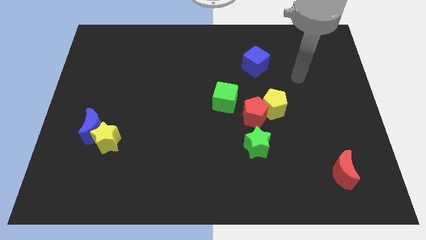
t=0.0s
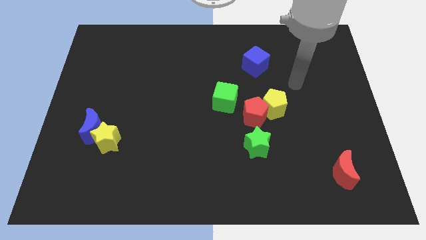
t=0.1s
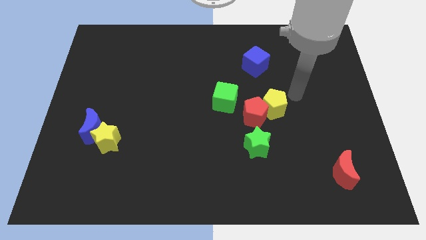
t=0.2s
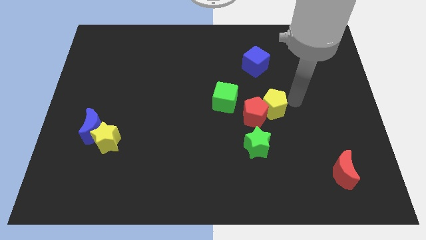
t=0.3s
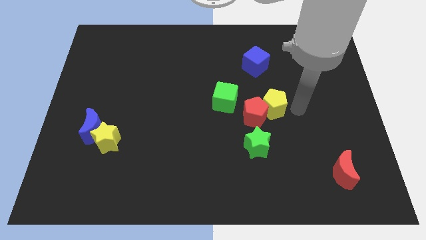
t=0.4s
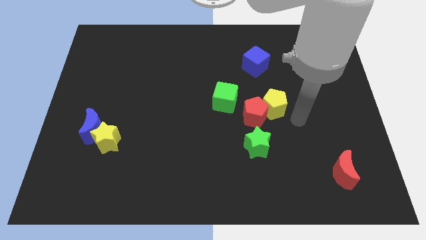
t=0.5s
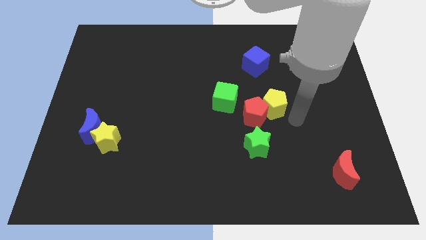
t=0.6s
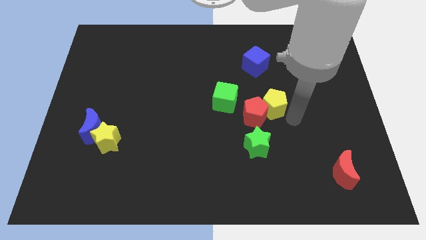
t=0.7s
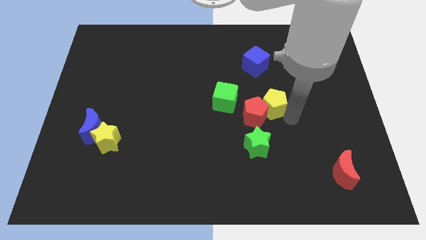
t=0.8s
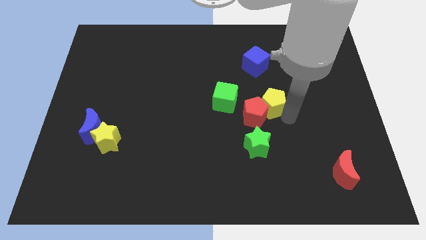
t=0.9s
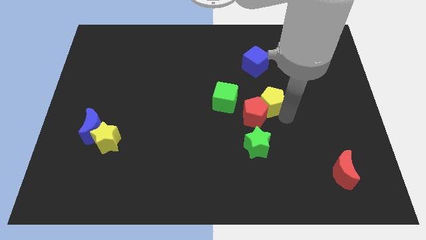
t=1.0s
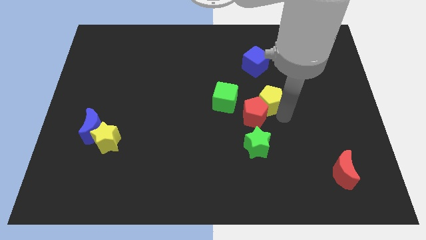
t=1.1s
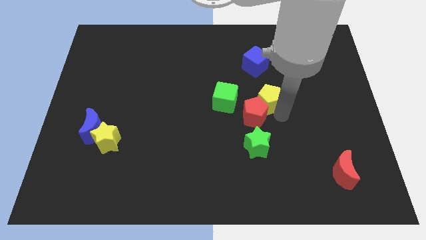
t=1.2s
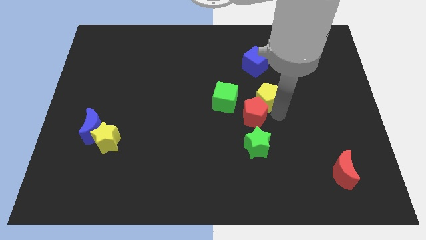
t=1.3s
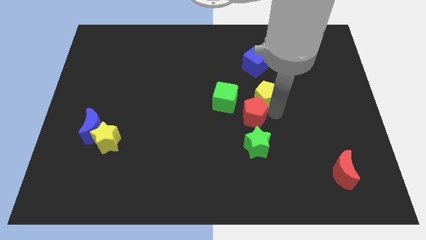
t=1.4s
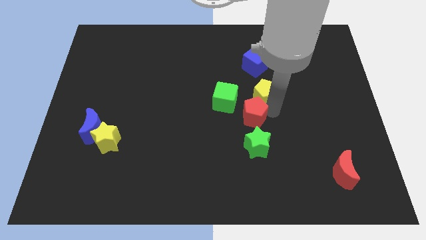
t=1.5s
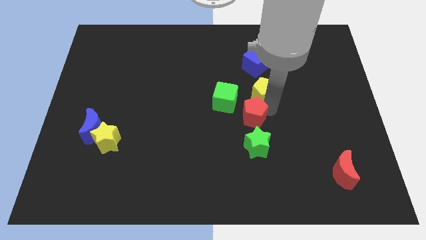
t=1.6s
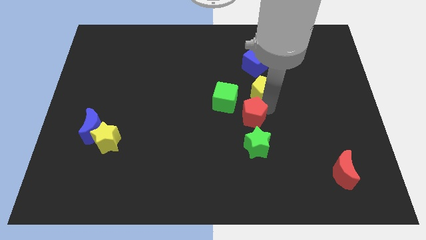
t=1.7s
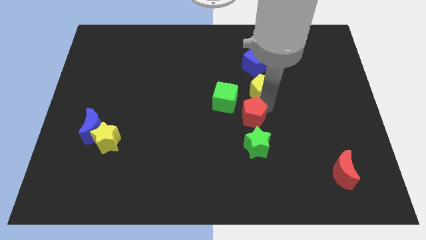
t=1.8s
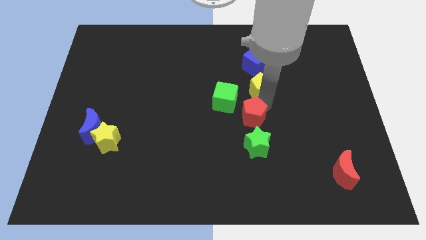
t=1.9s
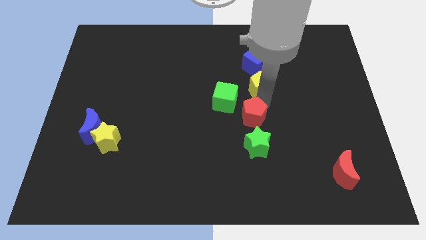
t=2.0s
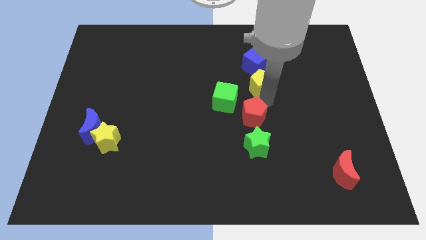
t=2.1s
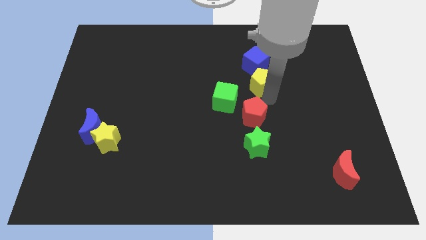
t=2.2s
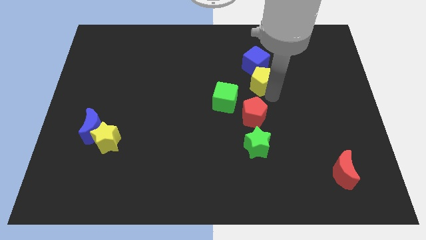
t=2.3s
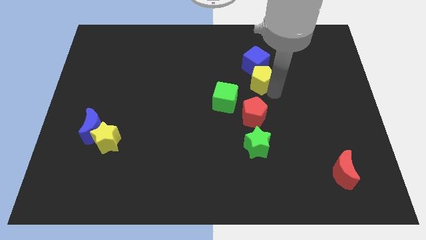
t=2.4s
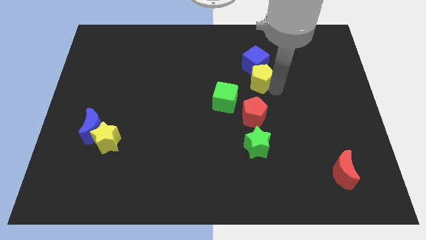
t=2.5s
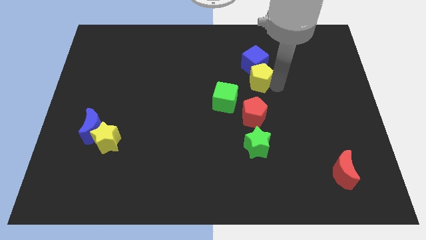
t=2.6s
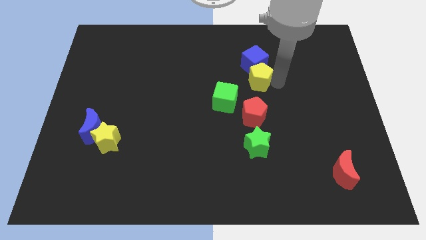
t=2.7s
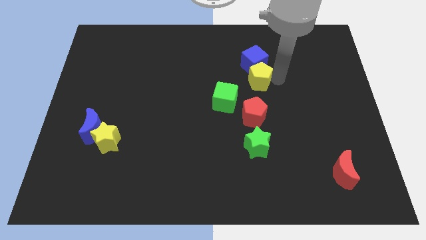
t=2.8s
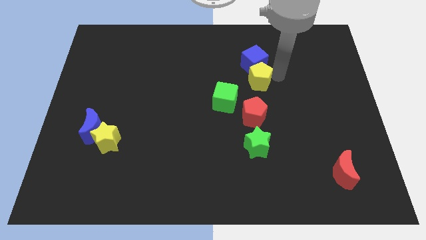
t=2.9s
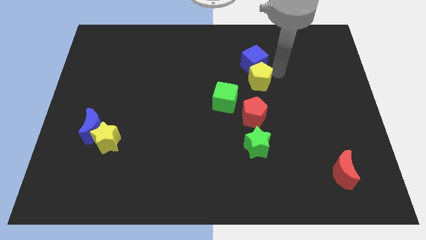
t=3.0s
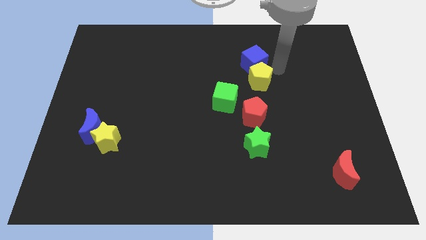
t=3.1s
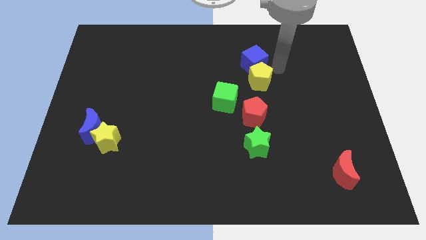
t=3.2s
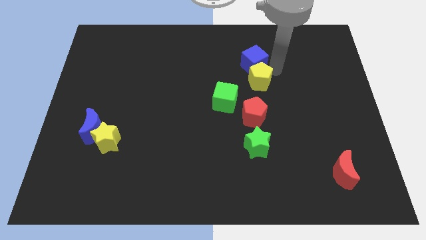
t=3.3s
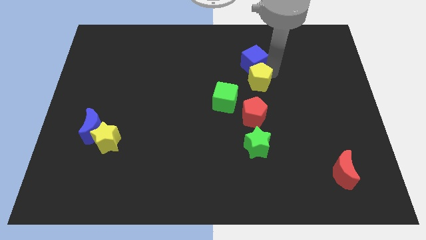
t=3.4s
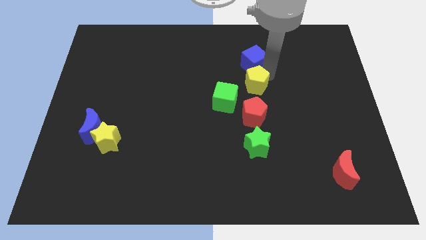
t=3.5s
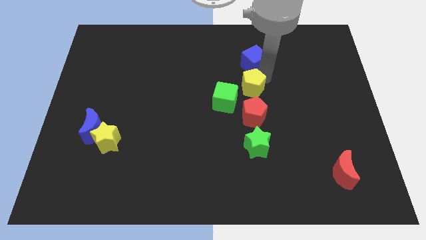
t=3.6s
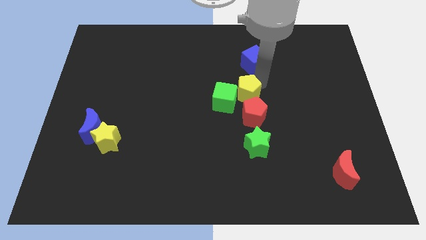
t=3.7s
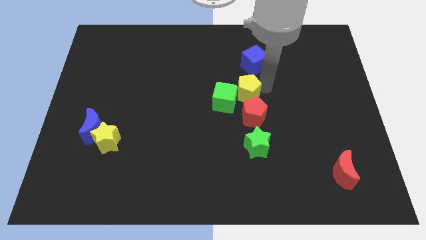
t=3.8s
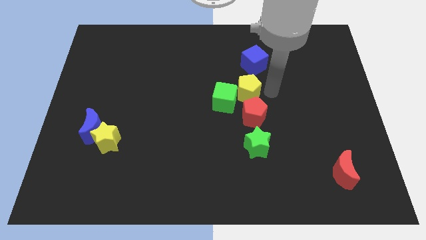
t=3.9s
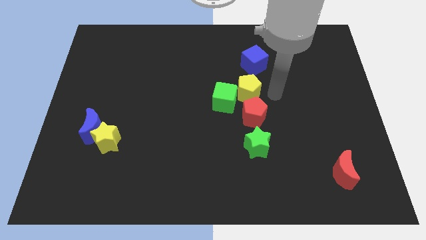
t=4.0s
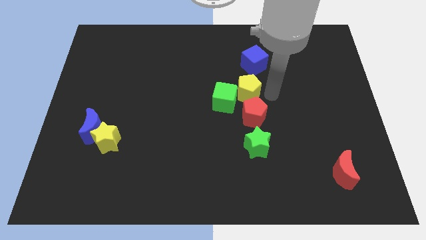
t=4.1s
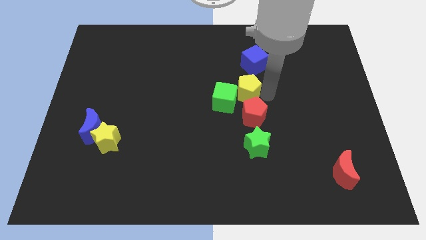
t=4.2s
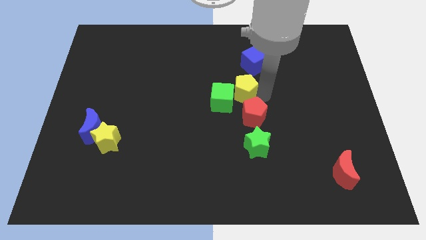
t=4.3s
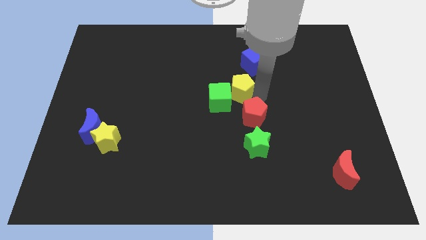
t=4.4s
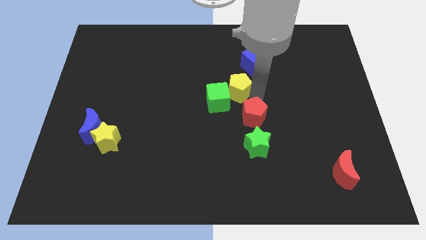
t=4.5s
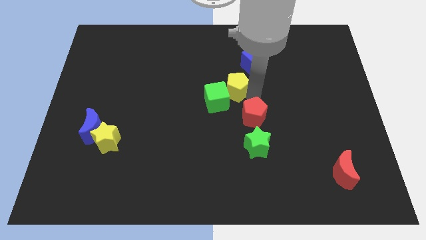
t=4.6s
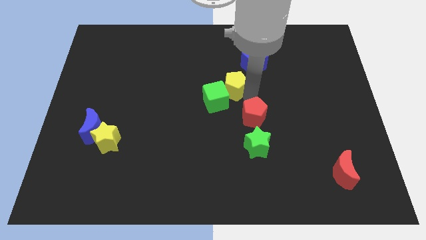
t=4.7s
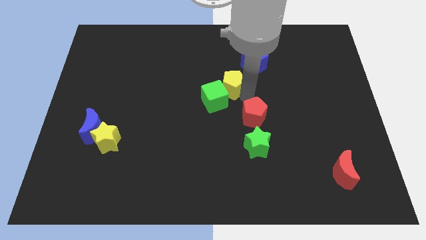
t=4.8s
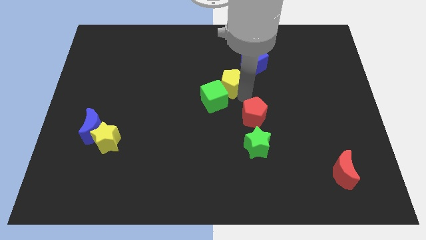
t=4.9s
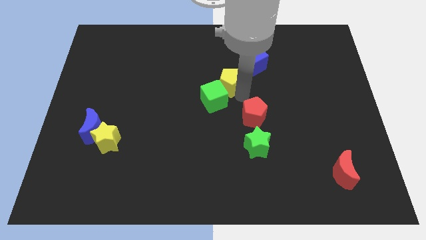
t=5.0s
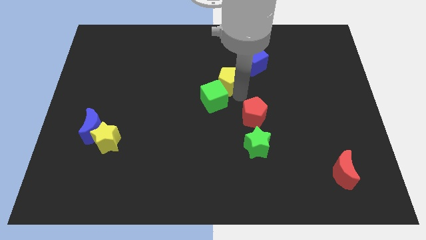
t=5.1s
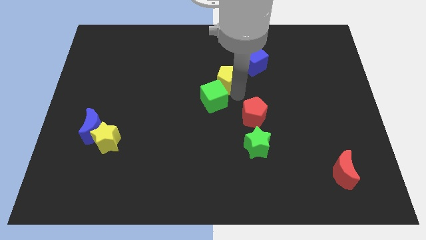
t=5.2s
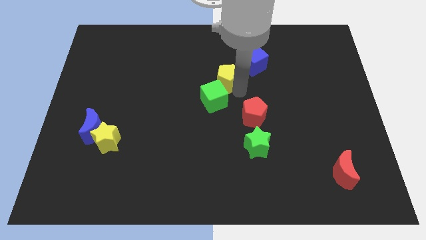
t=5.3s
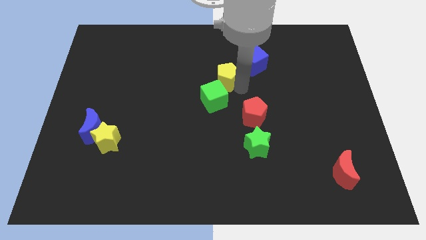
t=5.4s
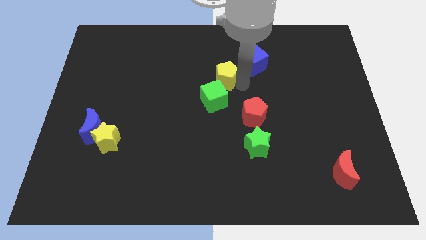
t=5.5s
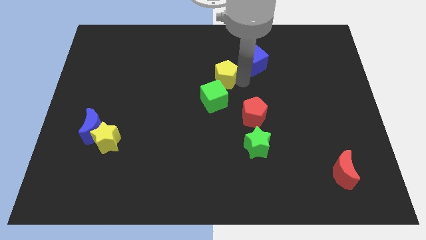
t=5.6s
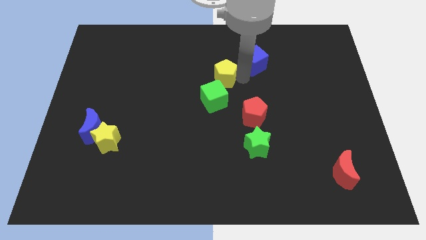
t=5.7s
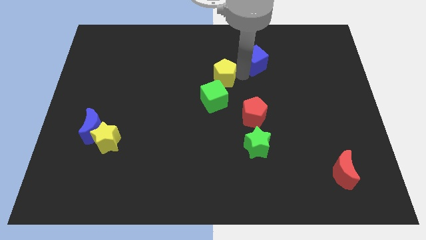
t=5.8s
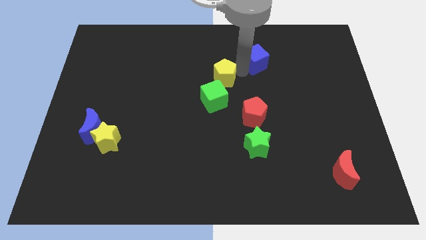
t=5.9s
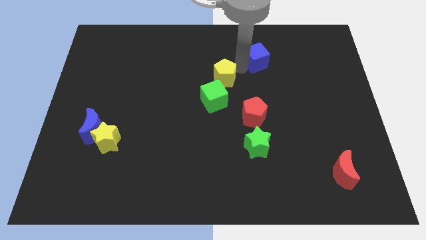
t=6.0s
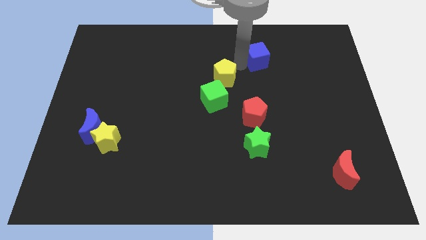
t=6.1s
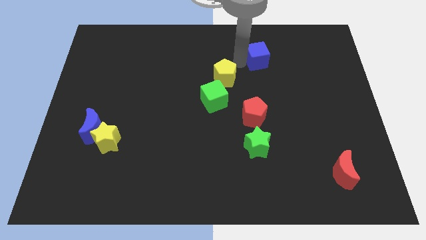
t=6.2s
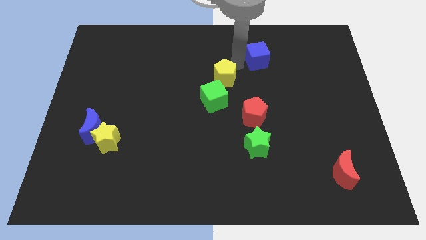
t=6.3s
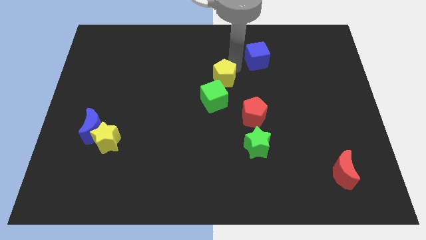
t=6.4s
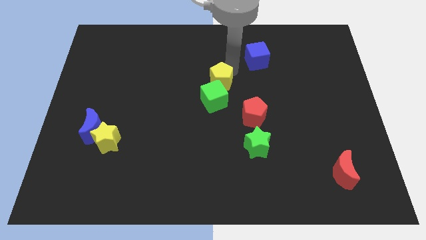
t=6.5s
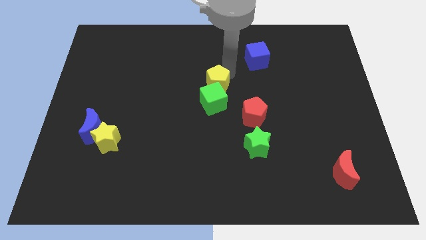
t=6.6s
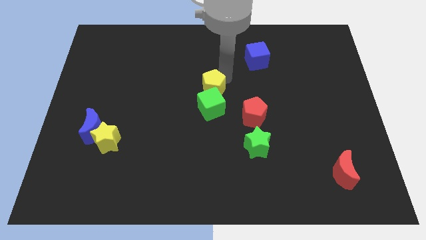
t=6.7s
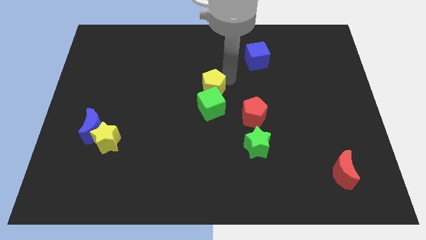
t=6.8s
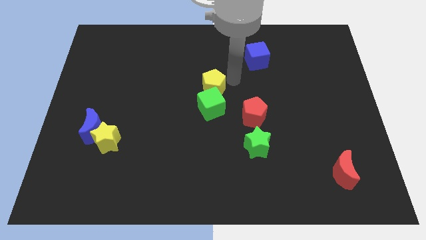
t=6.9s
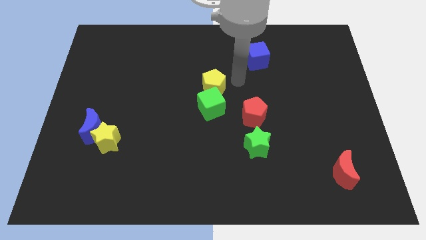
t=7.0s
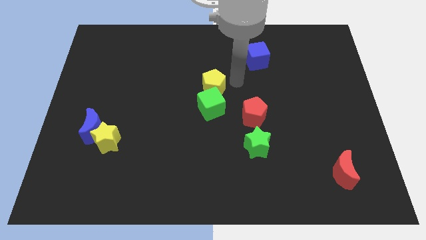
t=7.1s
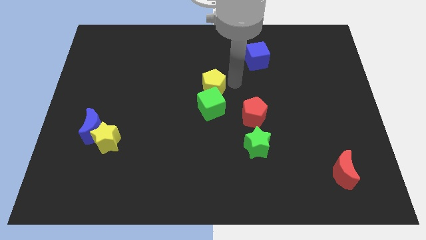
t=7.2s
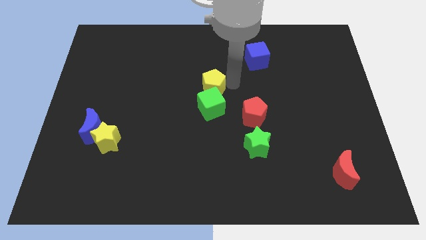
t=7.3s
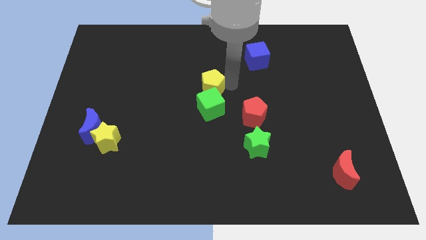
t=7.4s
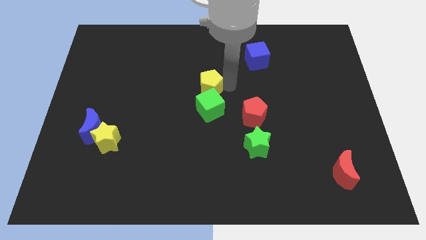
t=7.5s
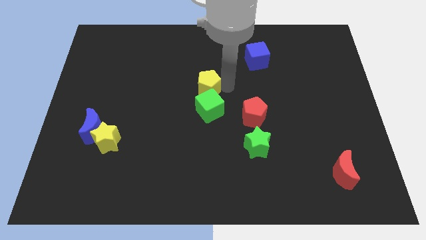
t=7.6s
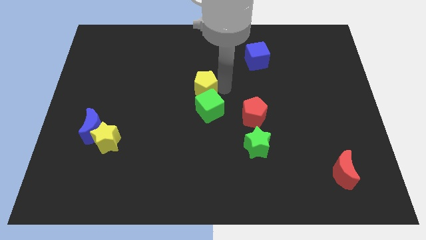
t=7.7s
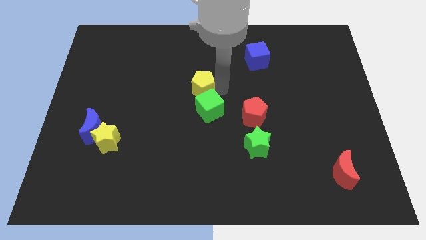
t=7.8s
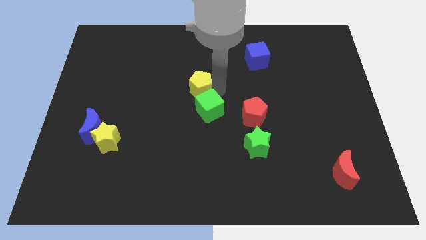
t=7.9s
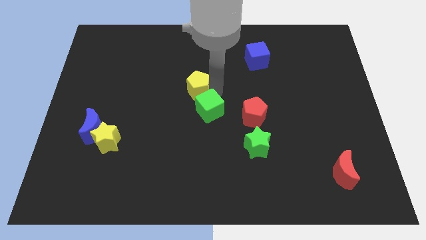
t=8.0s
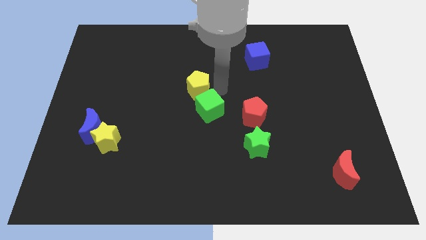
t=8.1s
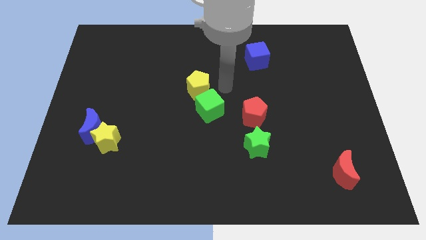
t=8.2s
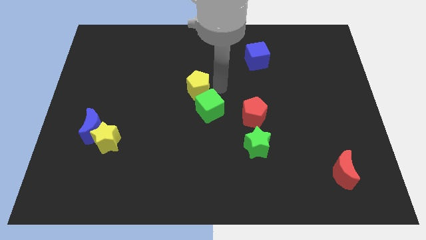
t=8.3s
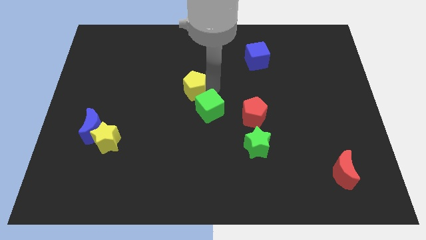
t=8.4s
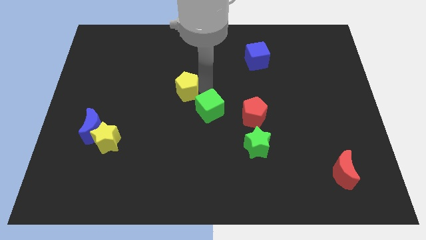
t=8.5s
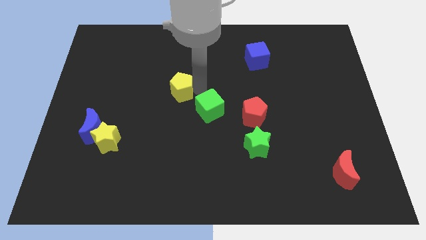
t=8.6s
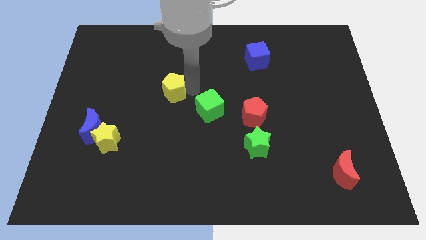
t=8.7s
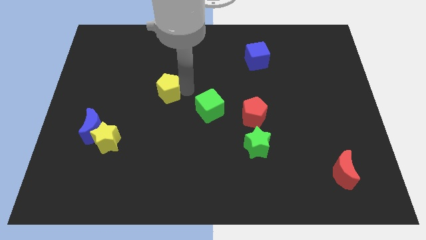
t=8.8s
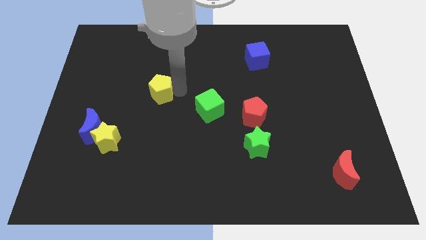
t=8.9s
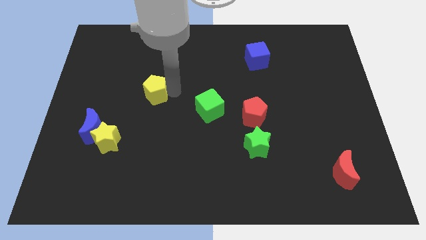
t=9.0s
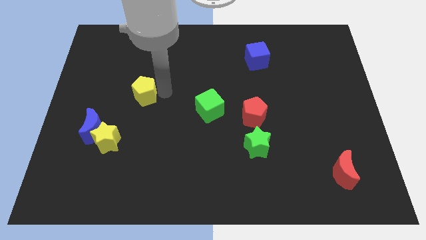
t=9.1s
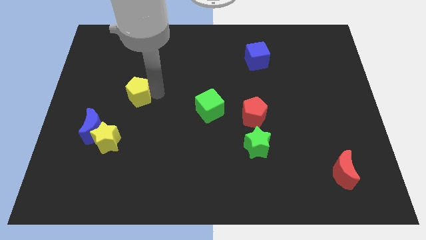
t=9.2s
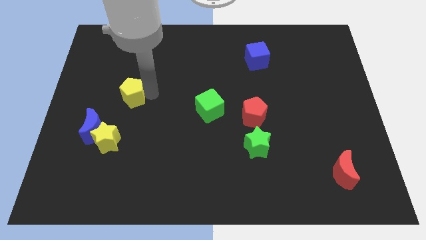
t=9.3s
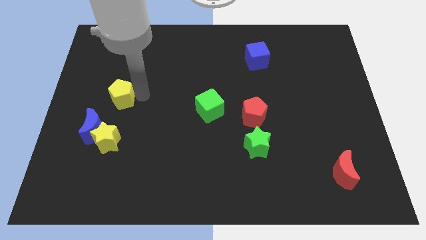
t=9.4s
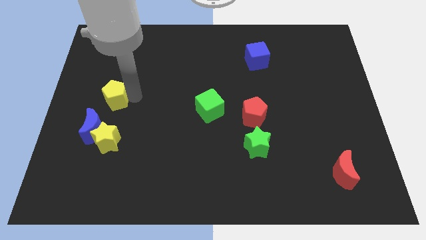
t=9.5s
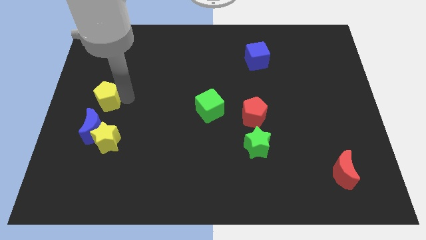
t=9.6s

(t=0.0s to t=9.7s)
put the yellow pentagon to the left side of the board
